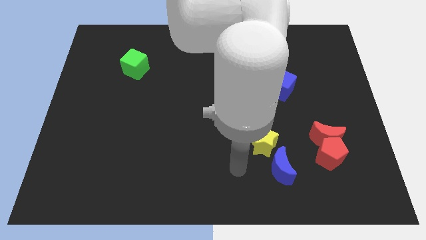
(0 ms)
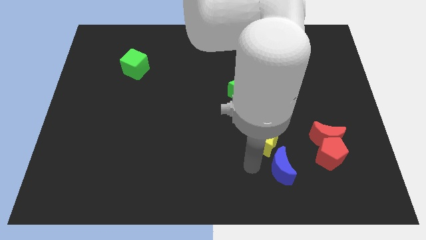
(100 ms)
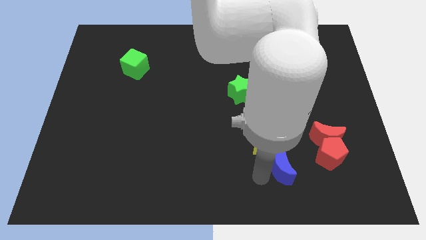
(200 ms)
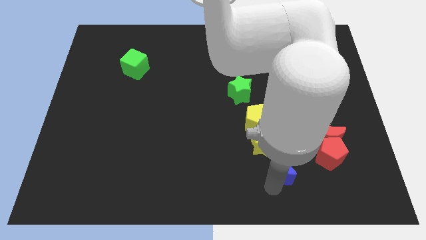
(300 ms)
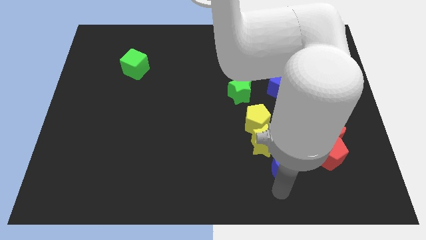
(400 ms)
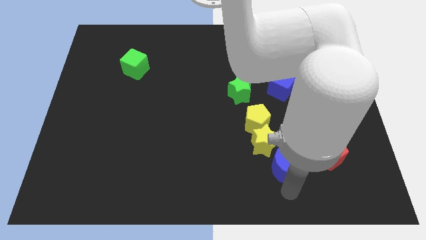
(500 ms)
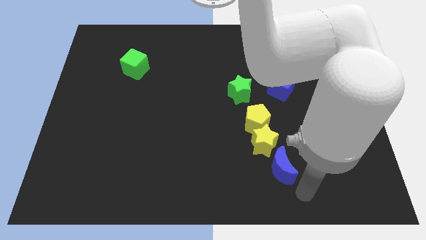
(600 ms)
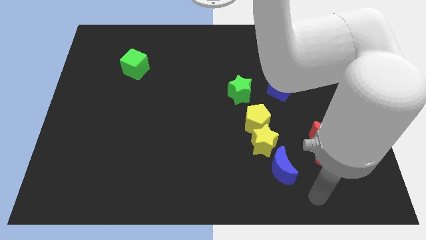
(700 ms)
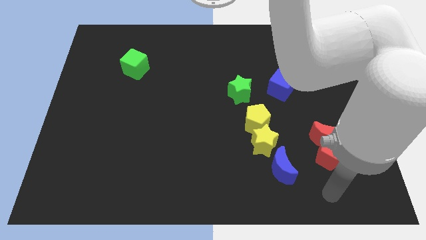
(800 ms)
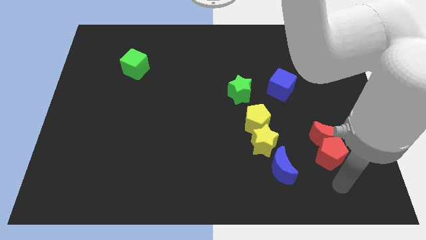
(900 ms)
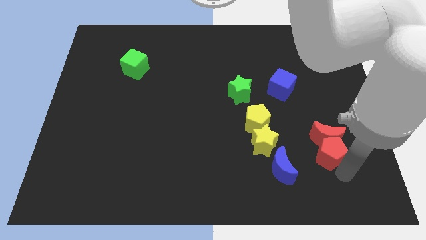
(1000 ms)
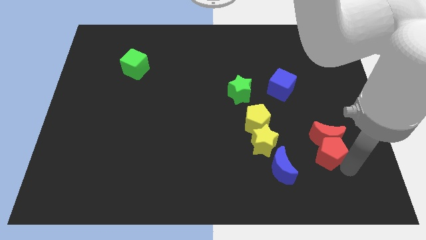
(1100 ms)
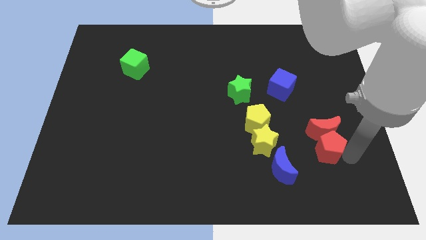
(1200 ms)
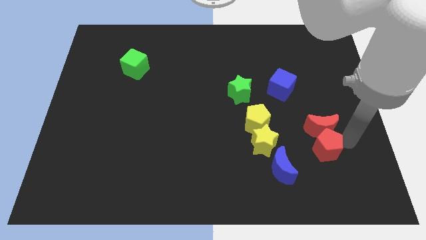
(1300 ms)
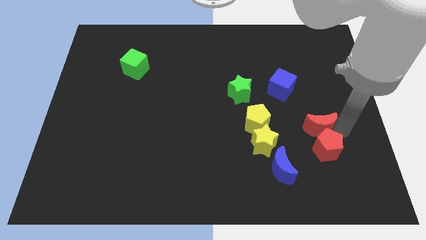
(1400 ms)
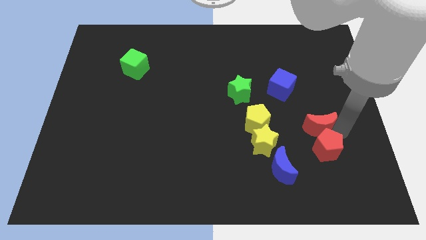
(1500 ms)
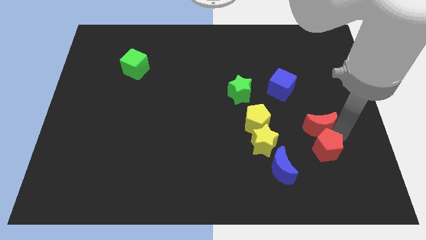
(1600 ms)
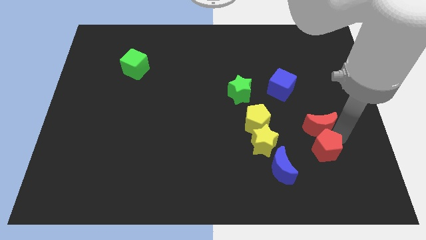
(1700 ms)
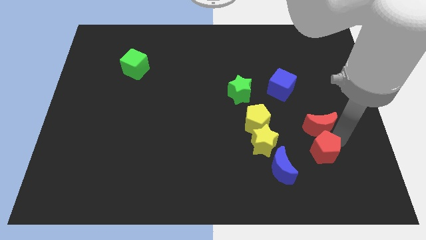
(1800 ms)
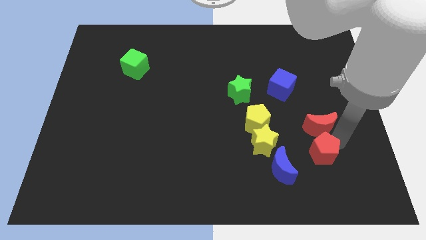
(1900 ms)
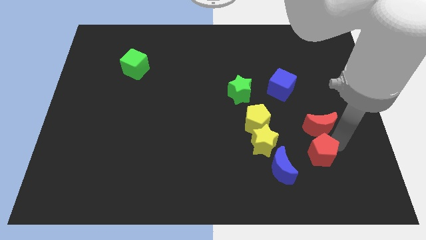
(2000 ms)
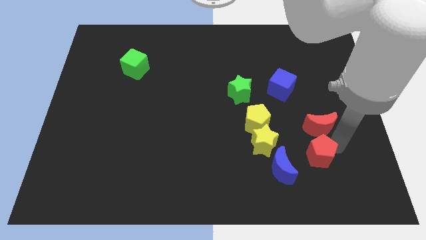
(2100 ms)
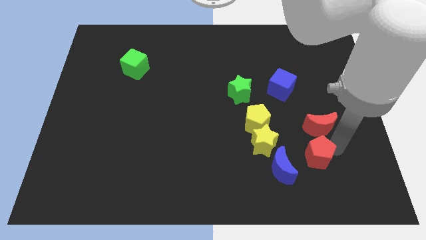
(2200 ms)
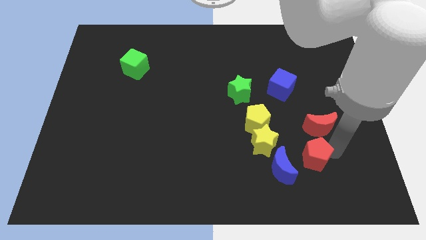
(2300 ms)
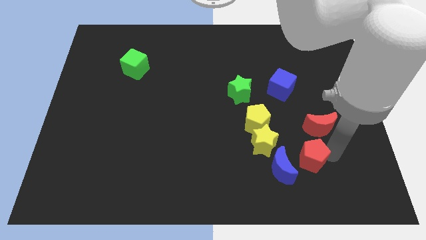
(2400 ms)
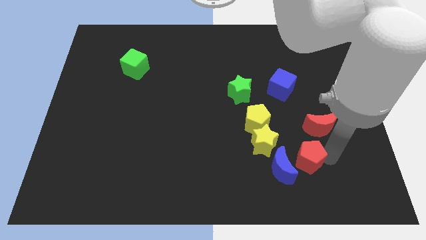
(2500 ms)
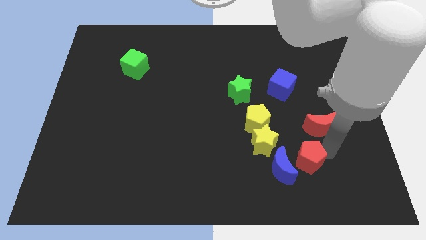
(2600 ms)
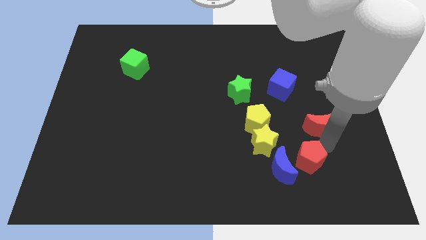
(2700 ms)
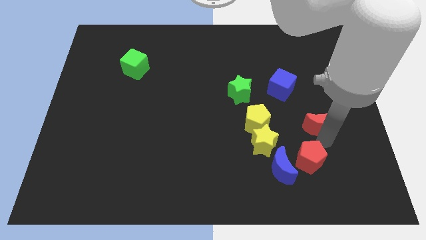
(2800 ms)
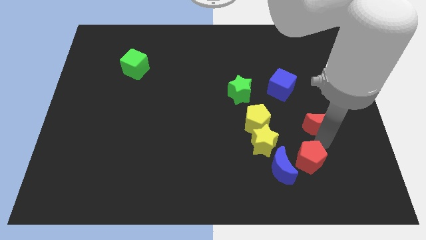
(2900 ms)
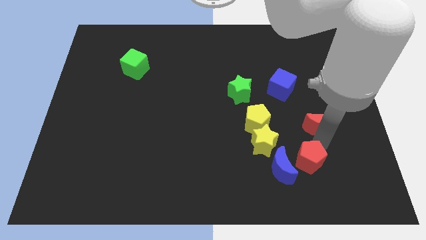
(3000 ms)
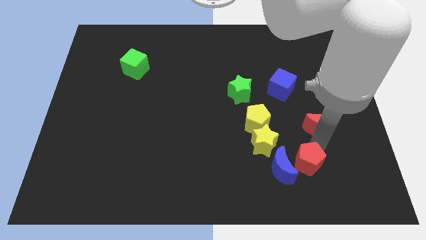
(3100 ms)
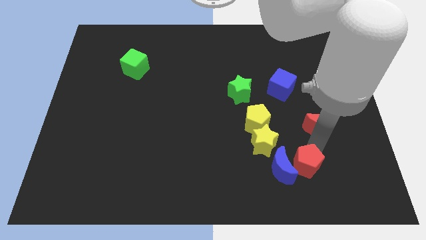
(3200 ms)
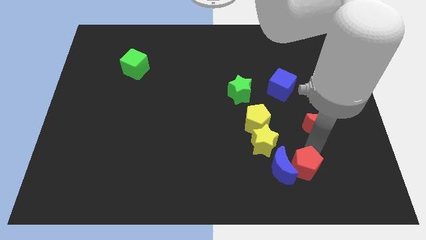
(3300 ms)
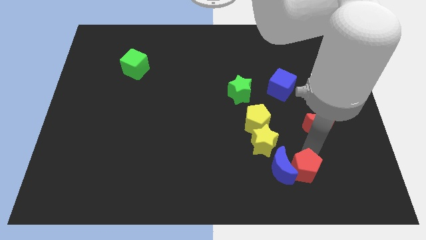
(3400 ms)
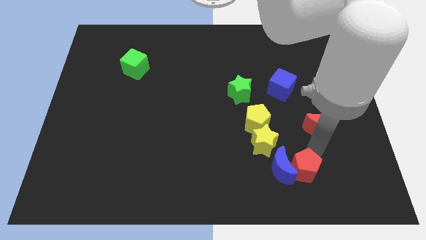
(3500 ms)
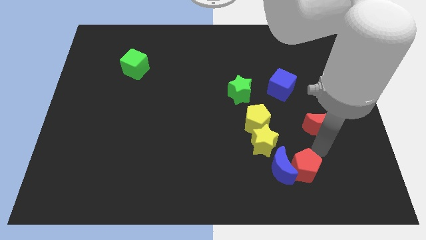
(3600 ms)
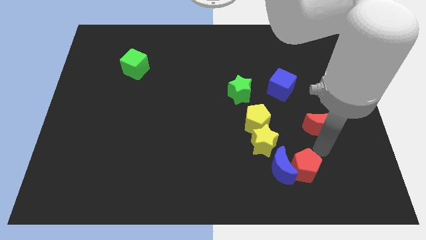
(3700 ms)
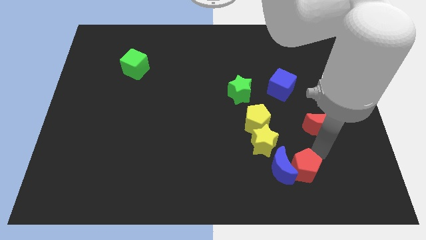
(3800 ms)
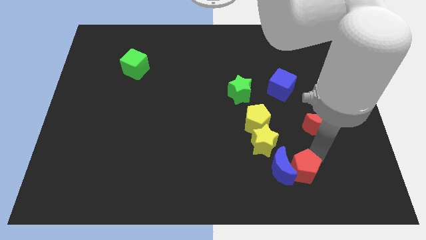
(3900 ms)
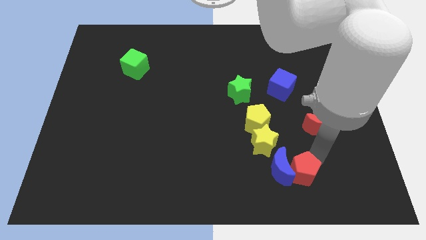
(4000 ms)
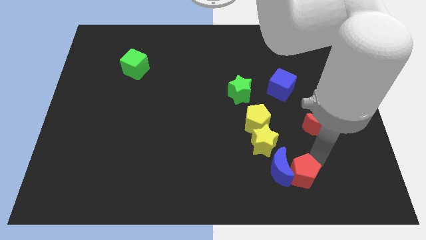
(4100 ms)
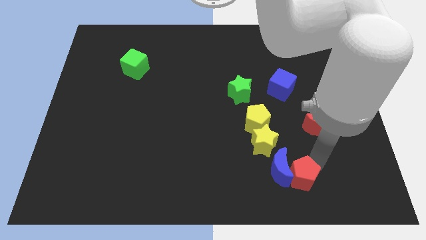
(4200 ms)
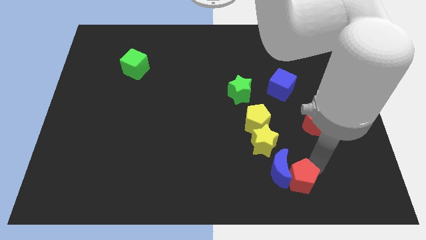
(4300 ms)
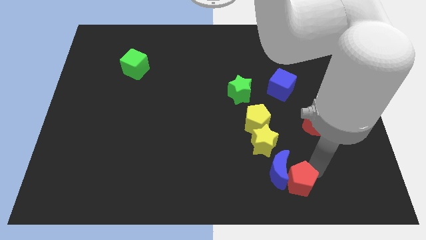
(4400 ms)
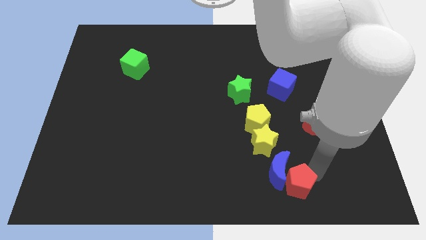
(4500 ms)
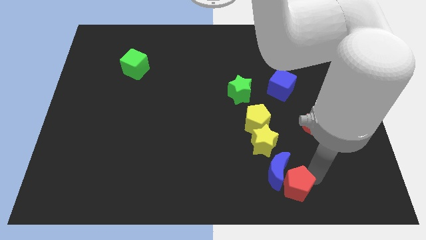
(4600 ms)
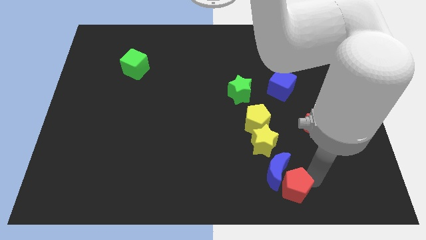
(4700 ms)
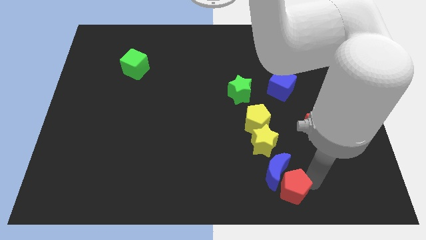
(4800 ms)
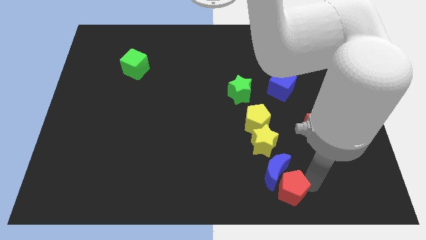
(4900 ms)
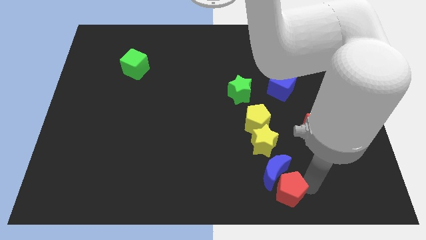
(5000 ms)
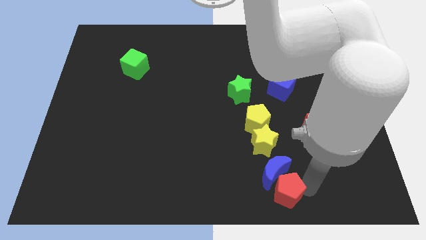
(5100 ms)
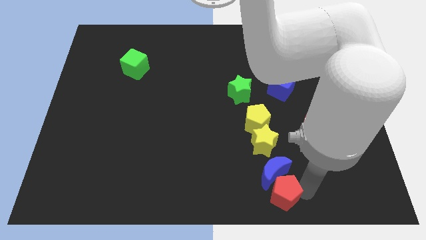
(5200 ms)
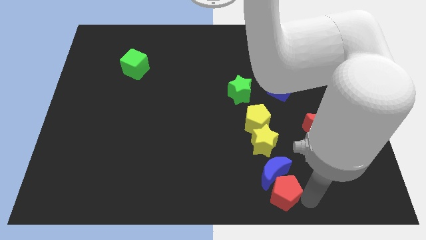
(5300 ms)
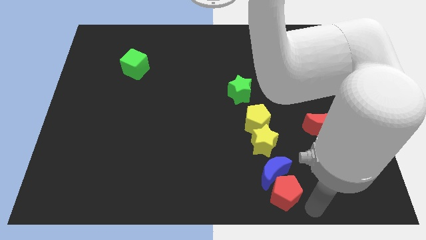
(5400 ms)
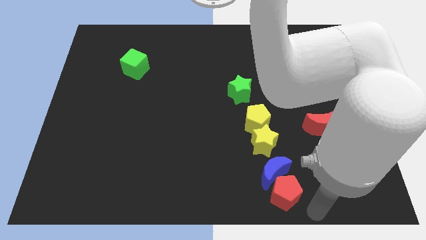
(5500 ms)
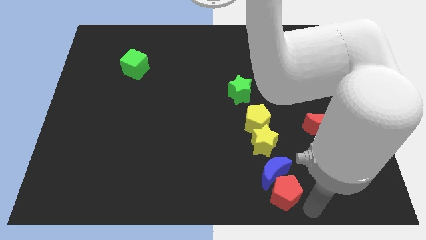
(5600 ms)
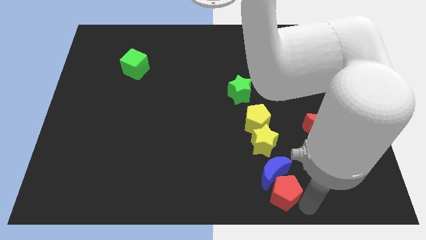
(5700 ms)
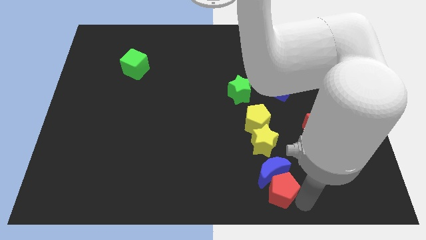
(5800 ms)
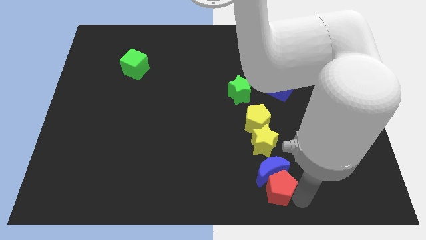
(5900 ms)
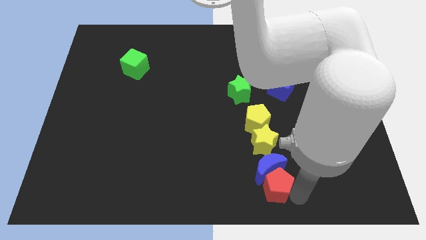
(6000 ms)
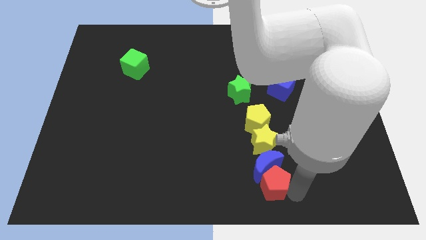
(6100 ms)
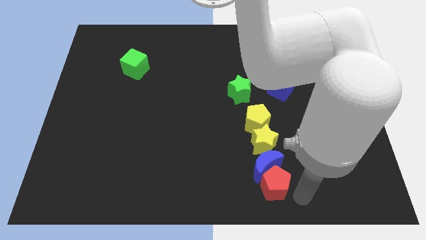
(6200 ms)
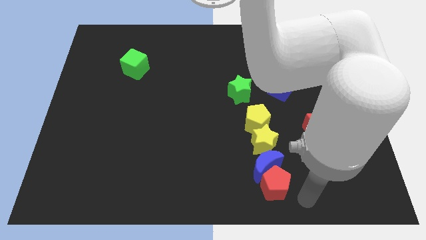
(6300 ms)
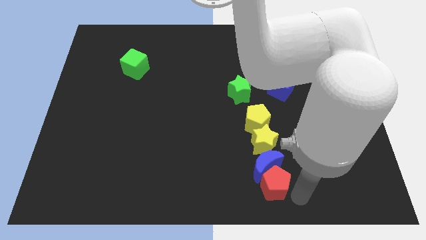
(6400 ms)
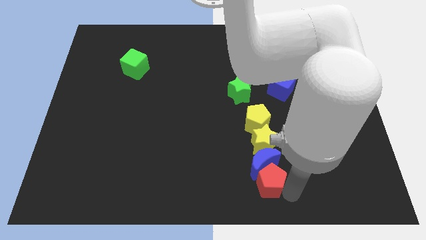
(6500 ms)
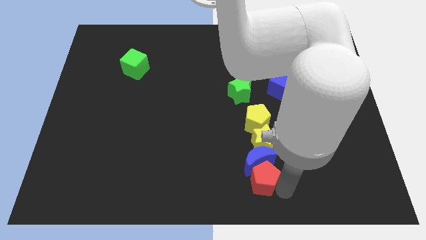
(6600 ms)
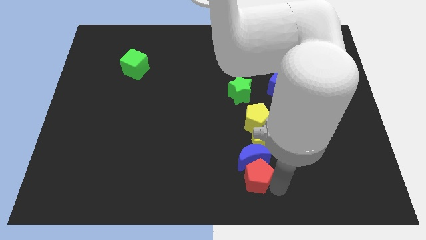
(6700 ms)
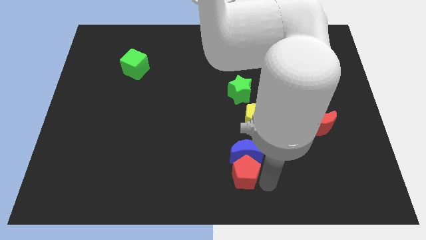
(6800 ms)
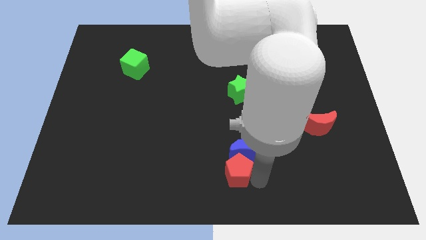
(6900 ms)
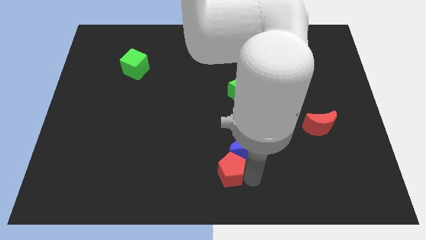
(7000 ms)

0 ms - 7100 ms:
push the red pentagon left

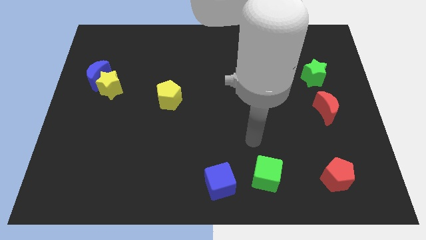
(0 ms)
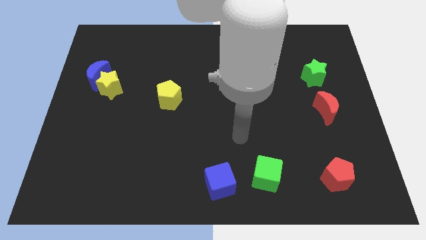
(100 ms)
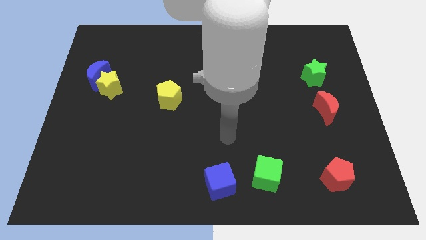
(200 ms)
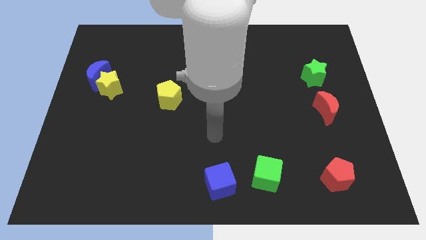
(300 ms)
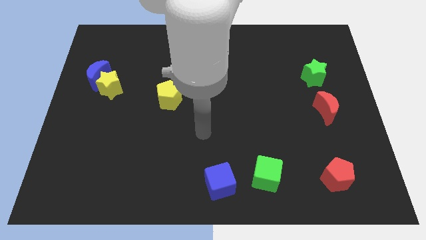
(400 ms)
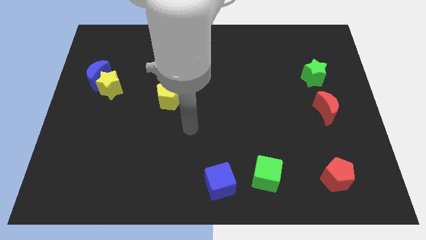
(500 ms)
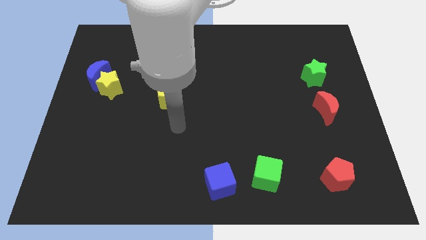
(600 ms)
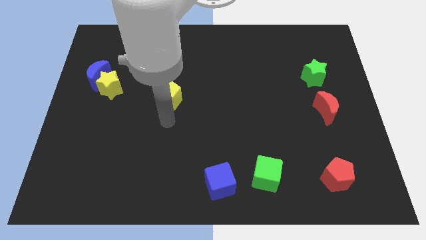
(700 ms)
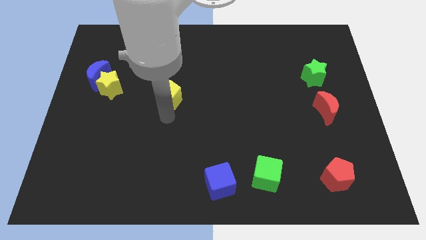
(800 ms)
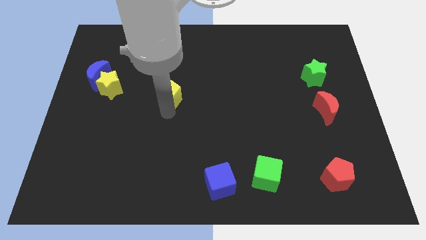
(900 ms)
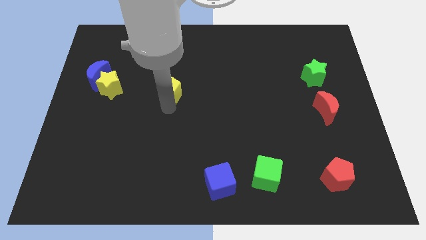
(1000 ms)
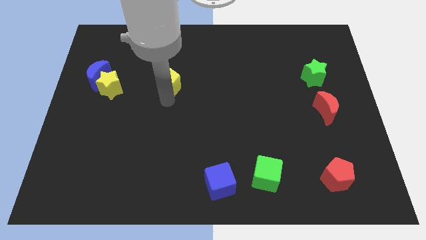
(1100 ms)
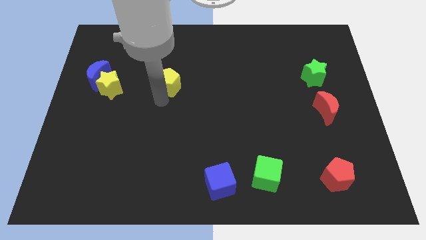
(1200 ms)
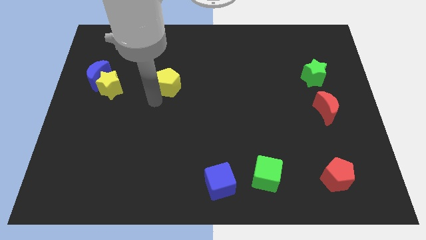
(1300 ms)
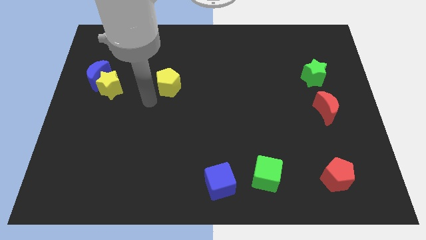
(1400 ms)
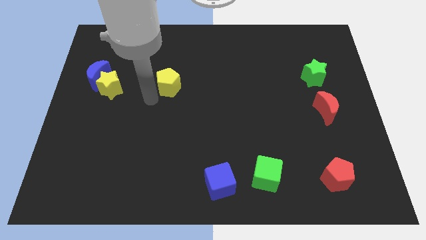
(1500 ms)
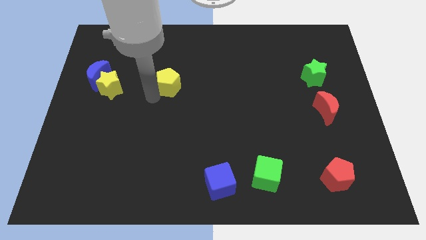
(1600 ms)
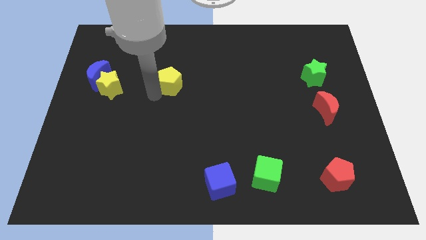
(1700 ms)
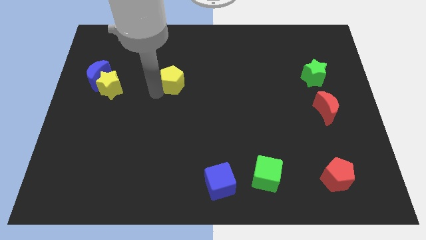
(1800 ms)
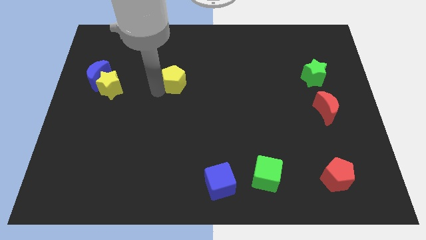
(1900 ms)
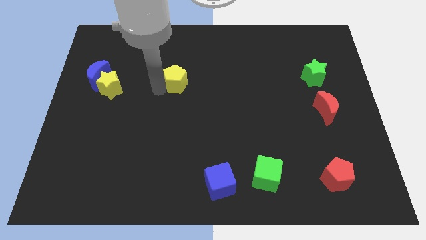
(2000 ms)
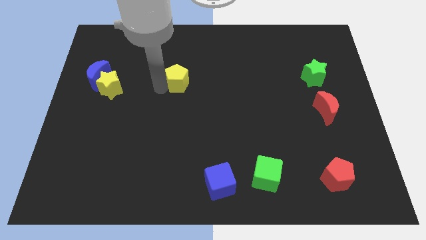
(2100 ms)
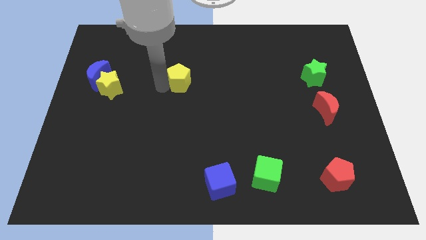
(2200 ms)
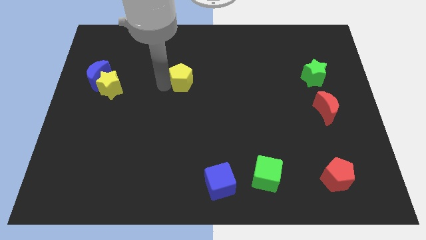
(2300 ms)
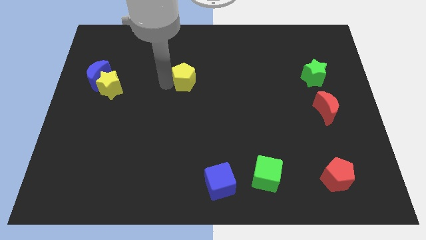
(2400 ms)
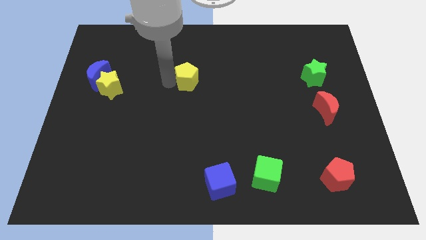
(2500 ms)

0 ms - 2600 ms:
slide the yellow pentagon up and then right a little bit
